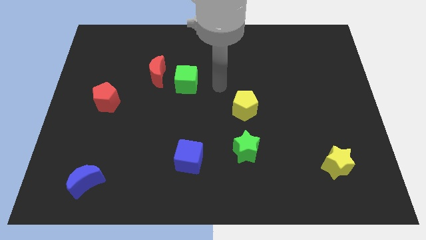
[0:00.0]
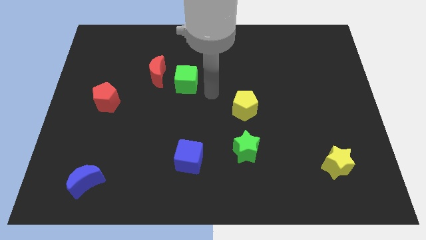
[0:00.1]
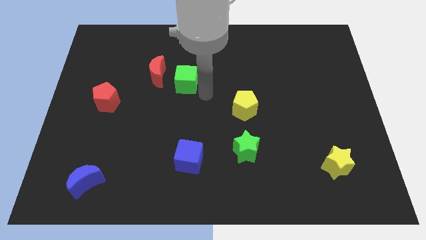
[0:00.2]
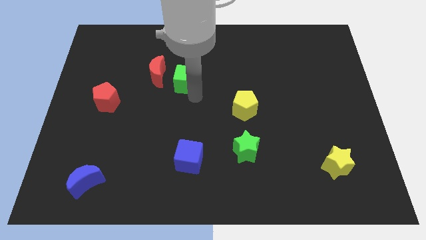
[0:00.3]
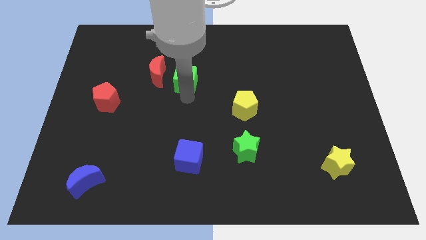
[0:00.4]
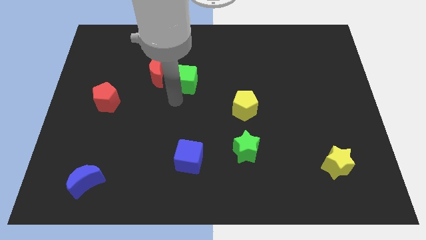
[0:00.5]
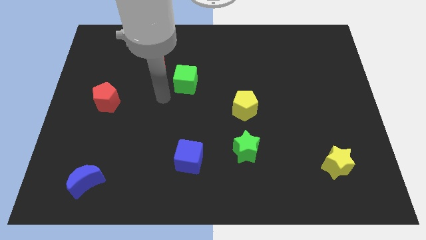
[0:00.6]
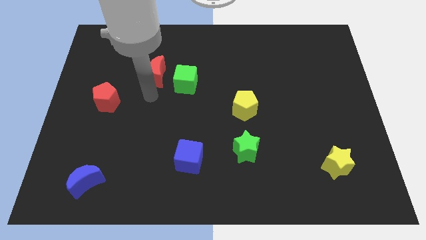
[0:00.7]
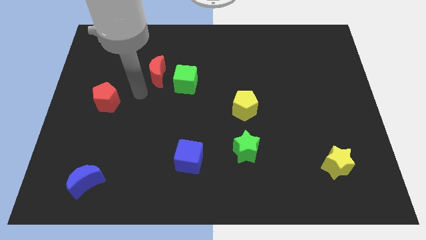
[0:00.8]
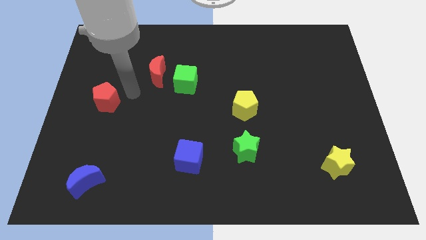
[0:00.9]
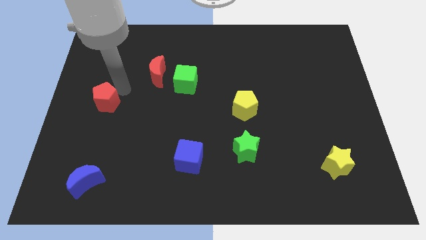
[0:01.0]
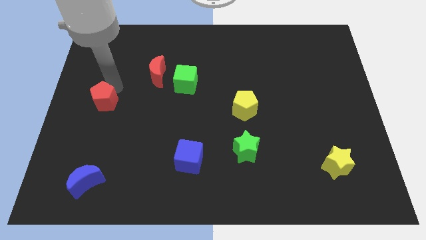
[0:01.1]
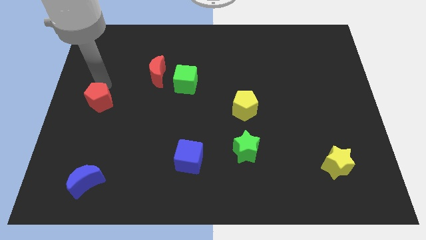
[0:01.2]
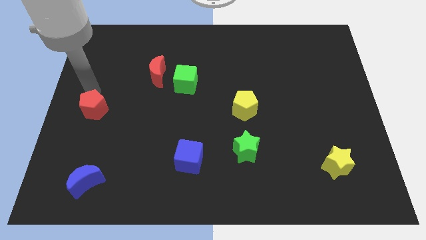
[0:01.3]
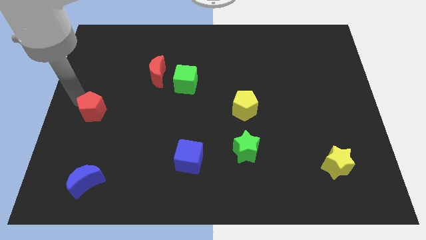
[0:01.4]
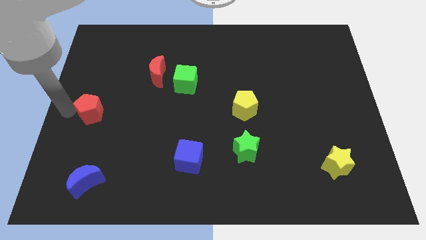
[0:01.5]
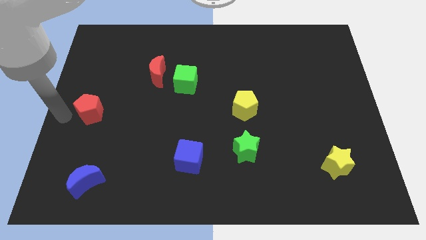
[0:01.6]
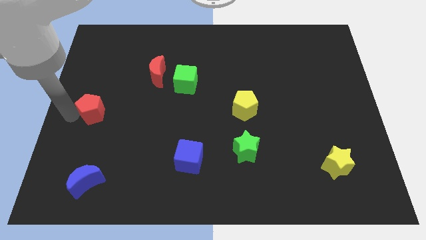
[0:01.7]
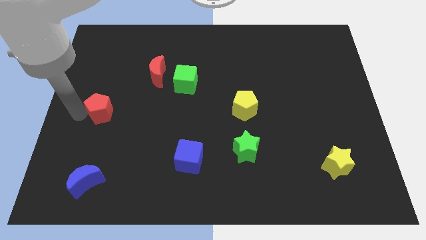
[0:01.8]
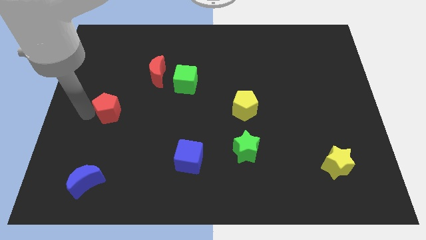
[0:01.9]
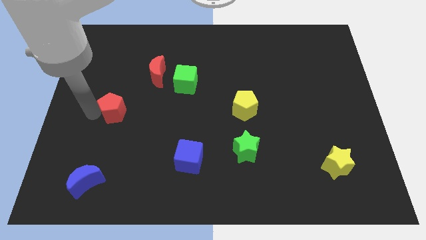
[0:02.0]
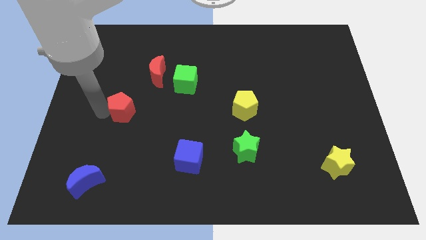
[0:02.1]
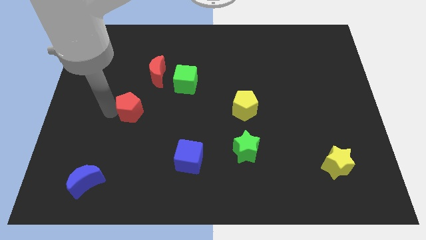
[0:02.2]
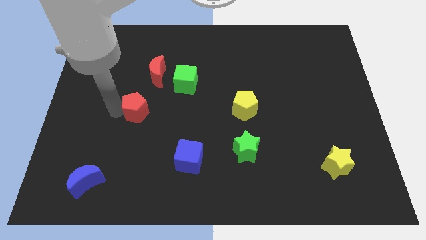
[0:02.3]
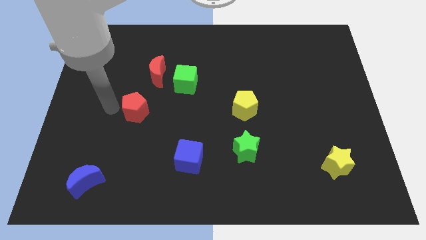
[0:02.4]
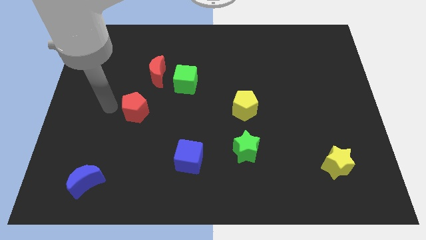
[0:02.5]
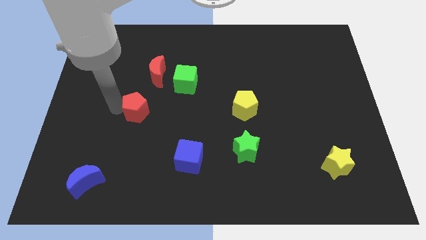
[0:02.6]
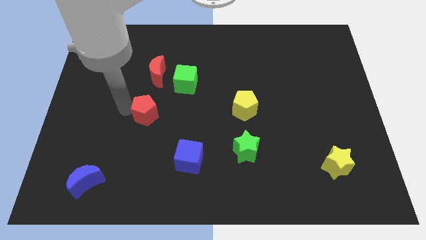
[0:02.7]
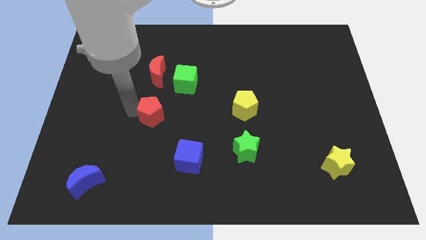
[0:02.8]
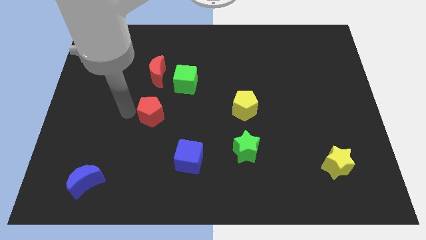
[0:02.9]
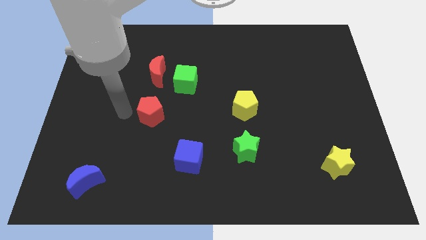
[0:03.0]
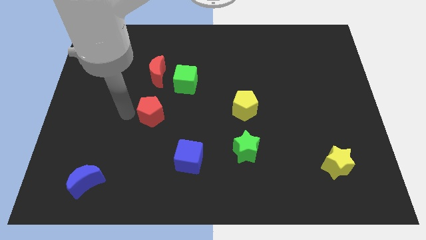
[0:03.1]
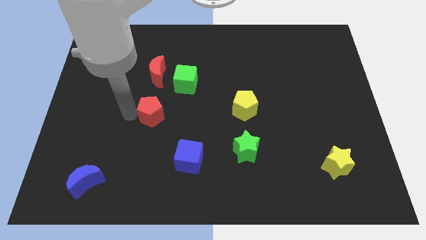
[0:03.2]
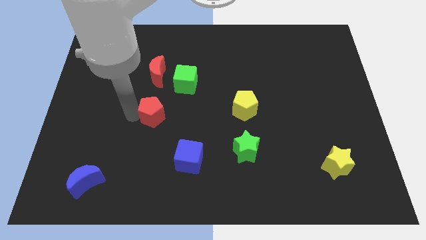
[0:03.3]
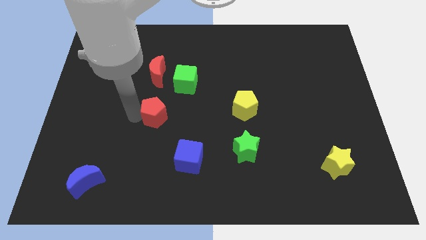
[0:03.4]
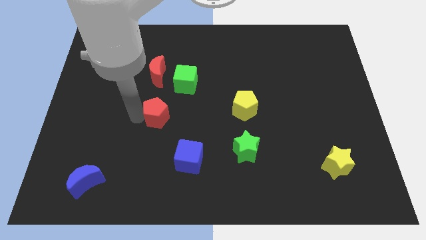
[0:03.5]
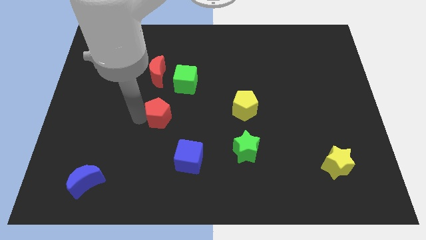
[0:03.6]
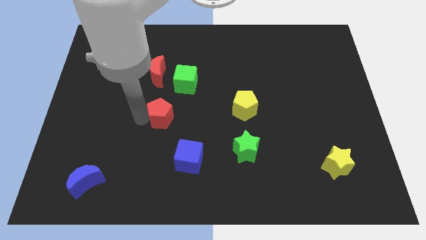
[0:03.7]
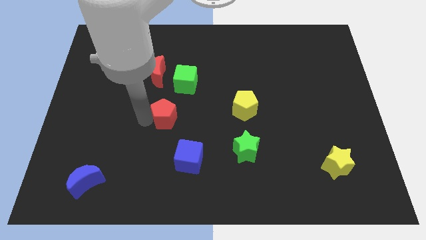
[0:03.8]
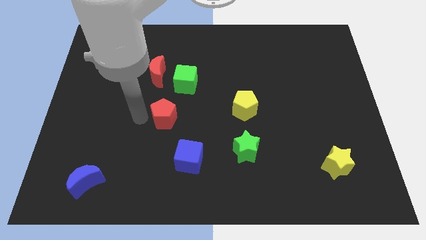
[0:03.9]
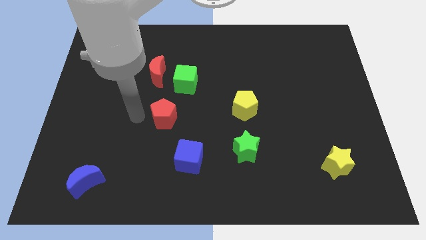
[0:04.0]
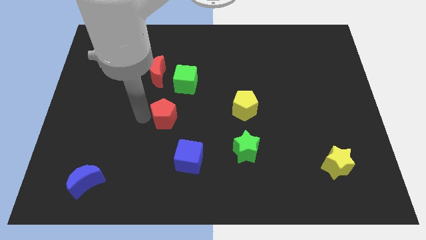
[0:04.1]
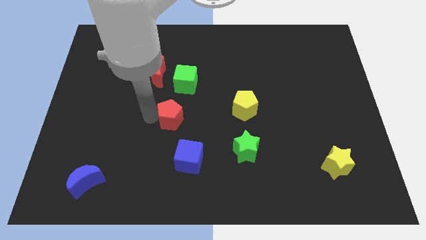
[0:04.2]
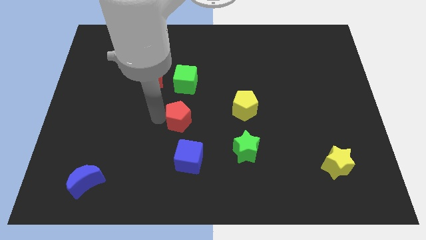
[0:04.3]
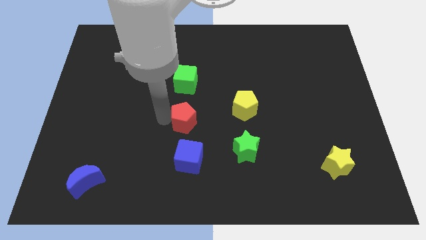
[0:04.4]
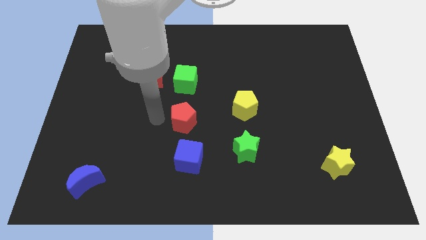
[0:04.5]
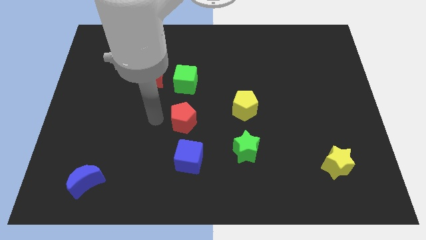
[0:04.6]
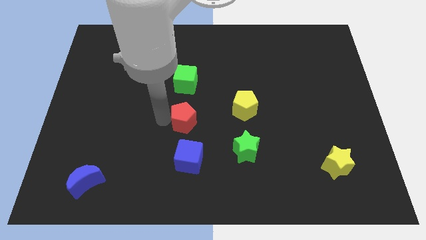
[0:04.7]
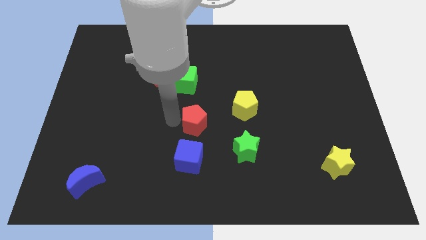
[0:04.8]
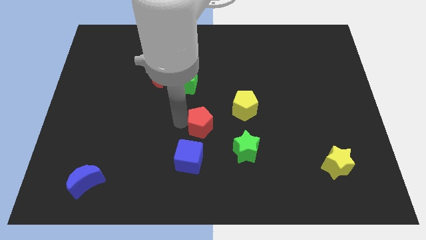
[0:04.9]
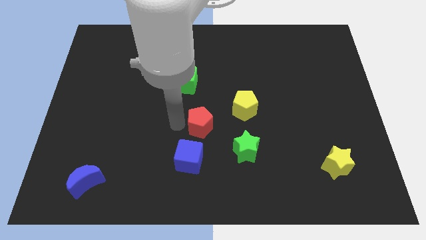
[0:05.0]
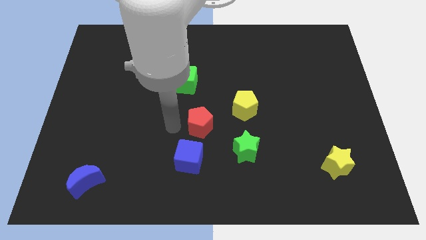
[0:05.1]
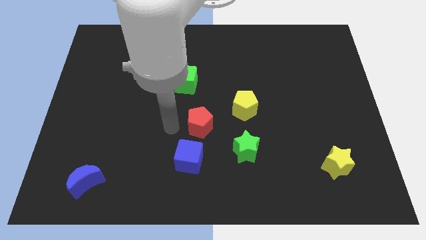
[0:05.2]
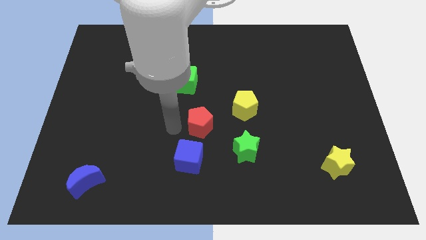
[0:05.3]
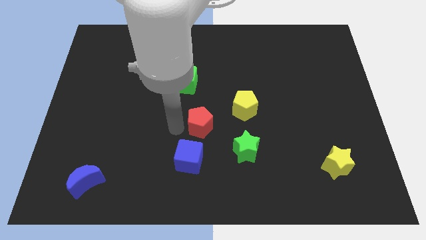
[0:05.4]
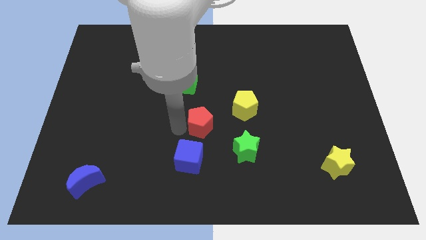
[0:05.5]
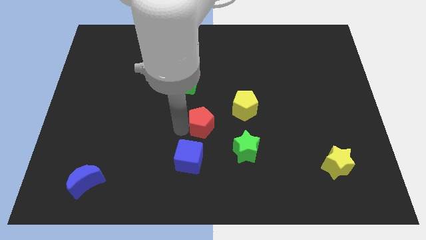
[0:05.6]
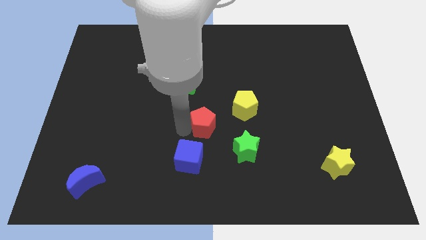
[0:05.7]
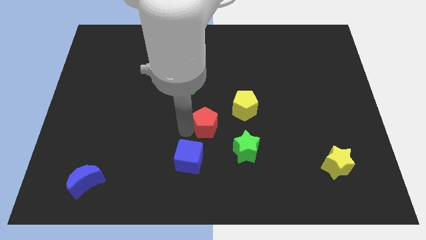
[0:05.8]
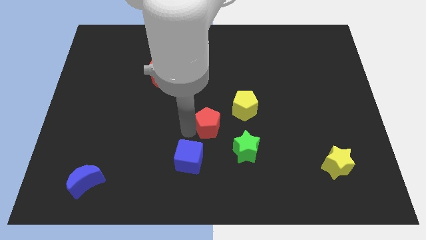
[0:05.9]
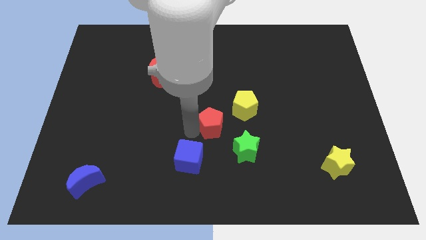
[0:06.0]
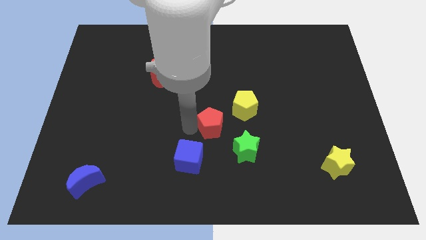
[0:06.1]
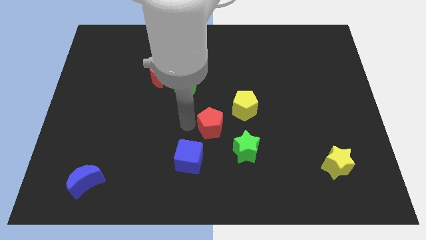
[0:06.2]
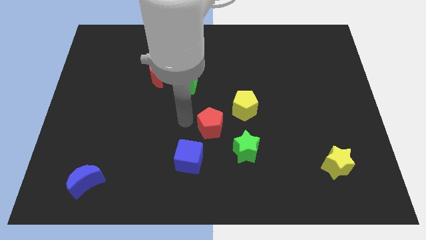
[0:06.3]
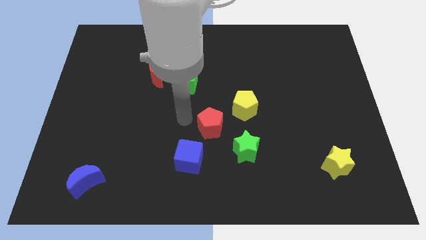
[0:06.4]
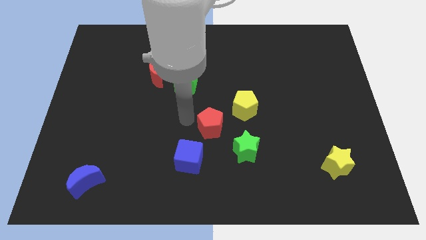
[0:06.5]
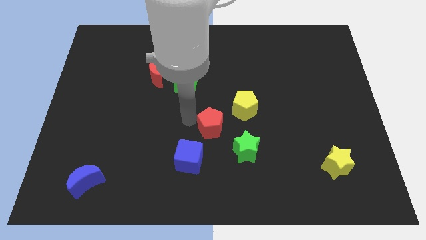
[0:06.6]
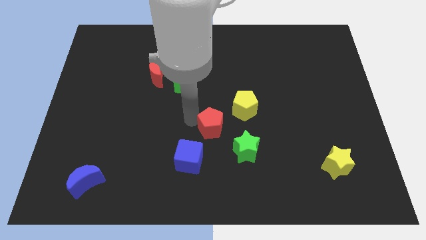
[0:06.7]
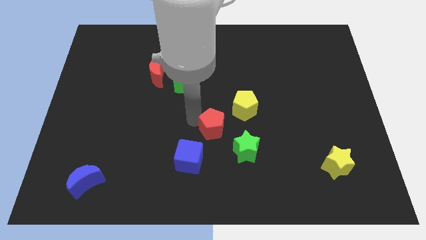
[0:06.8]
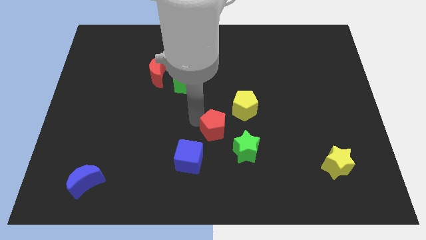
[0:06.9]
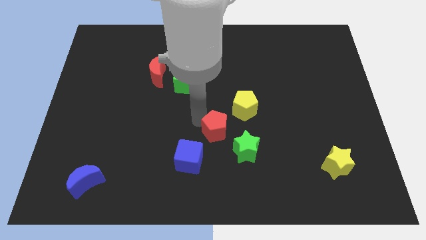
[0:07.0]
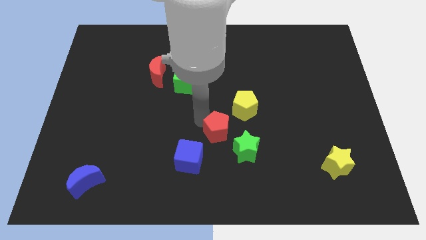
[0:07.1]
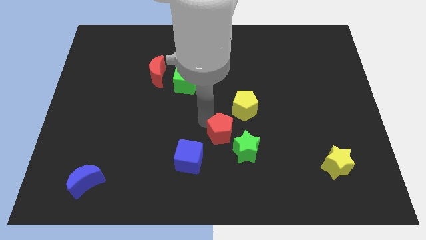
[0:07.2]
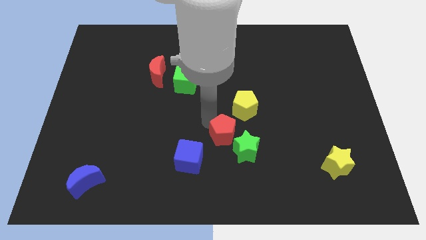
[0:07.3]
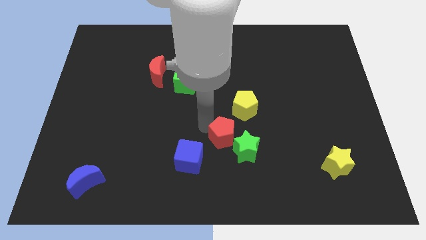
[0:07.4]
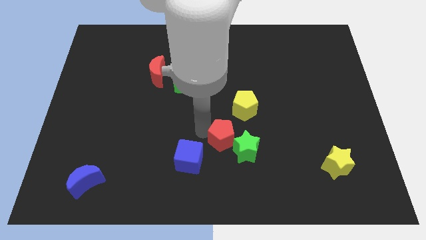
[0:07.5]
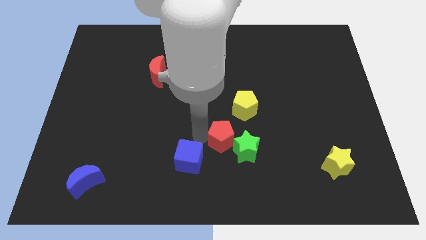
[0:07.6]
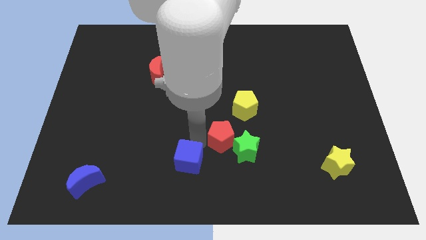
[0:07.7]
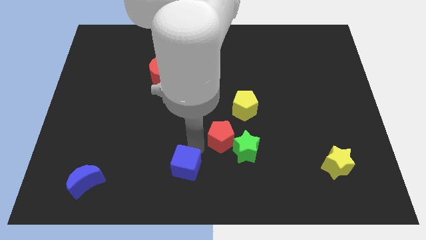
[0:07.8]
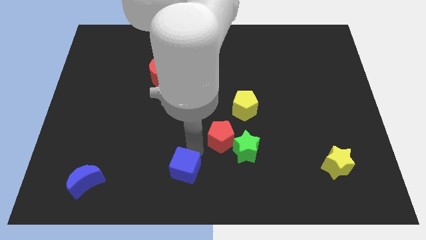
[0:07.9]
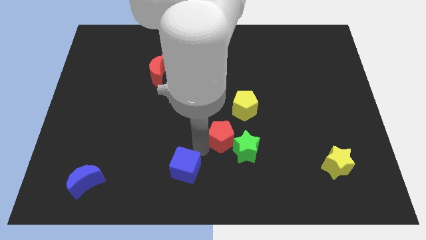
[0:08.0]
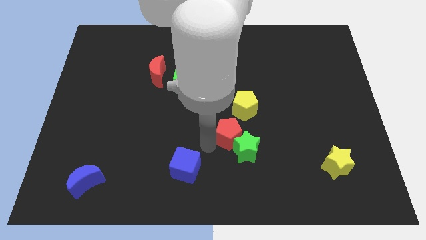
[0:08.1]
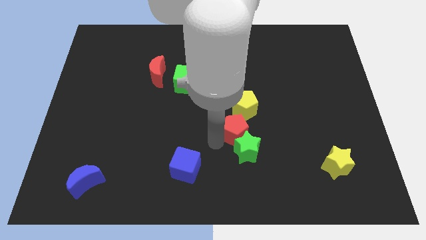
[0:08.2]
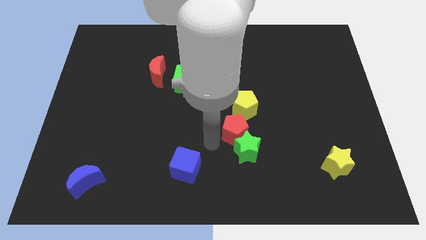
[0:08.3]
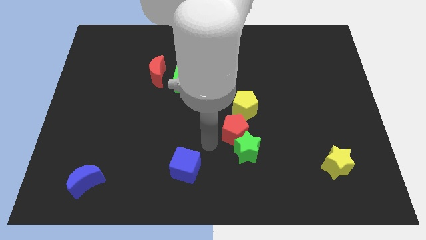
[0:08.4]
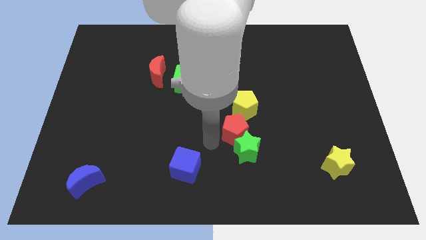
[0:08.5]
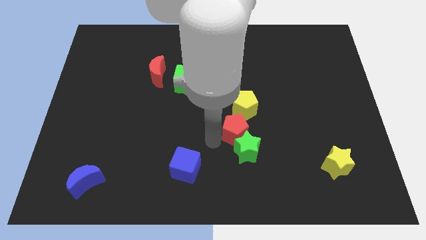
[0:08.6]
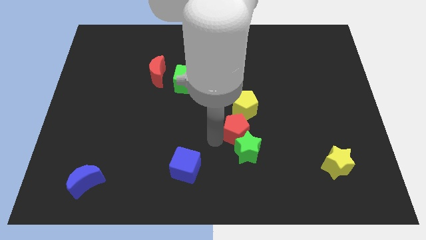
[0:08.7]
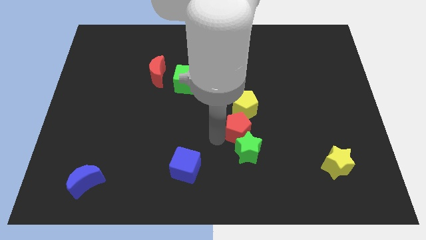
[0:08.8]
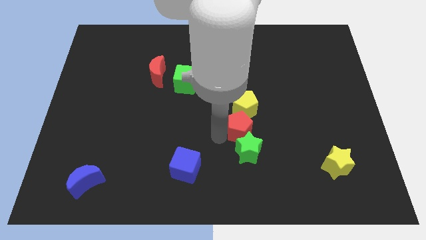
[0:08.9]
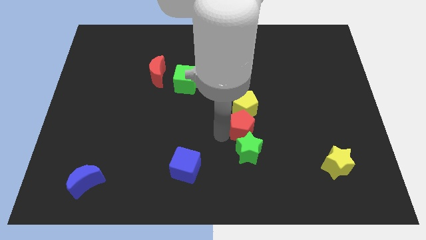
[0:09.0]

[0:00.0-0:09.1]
push the red pentagon to the bottom right of the yellow pentagon
